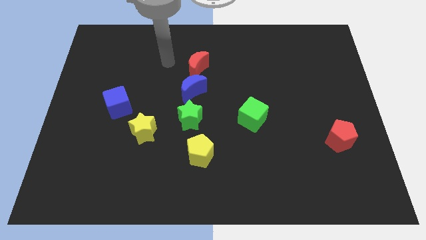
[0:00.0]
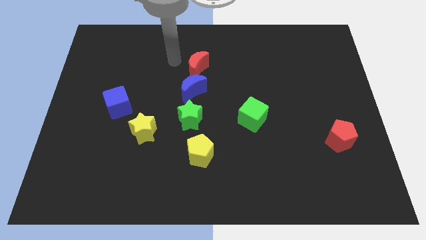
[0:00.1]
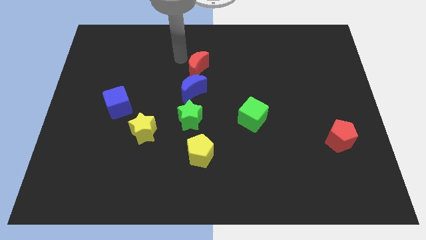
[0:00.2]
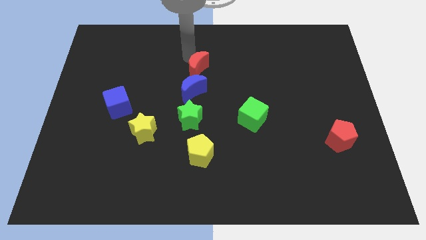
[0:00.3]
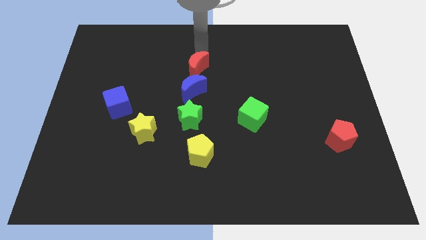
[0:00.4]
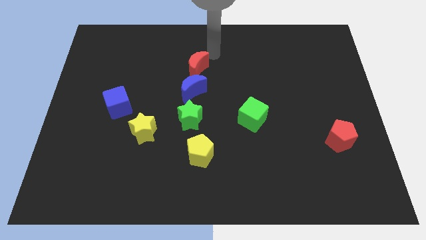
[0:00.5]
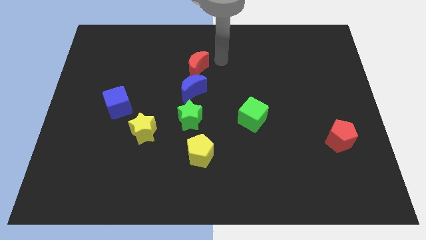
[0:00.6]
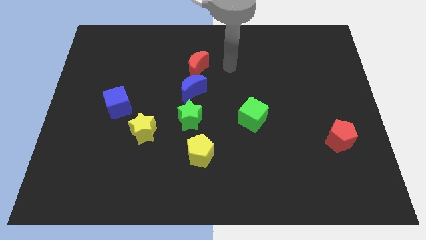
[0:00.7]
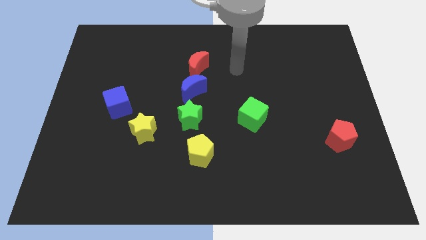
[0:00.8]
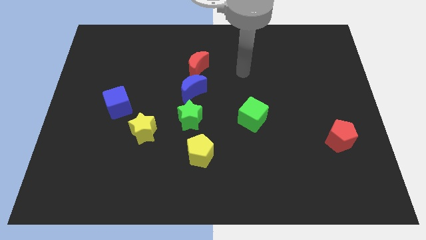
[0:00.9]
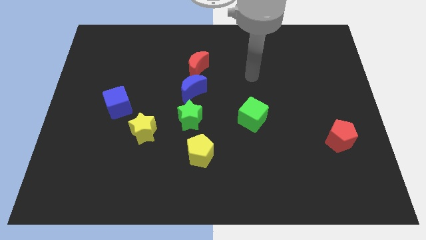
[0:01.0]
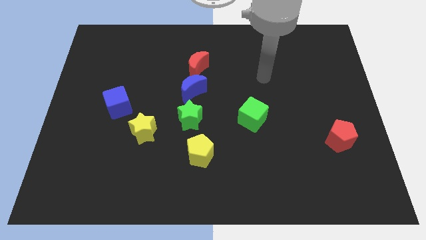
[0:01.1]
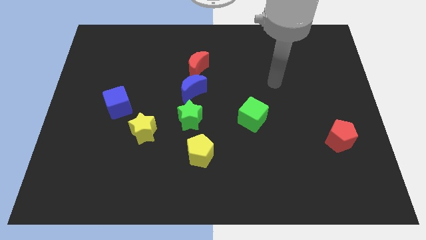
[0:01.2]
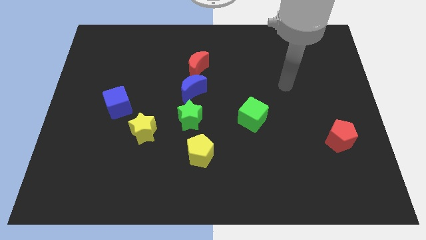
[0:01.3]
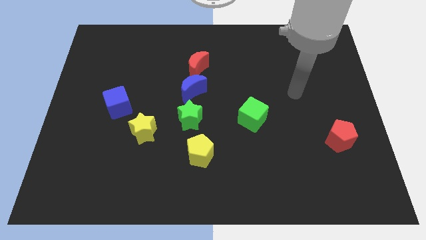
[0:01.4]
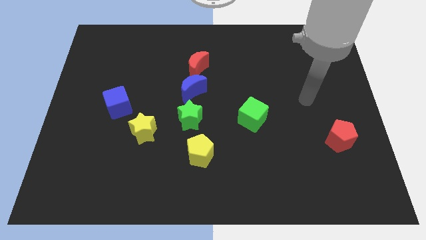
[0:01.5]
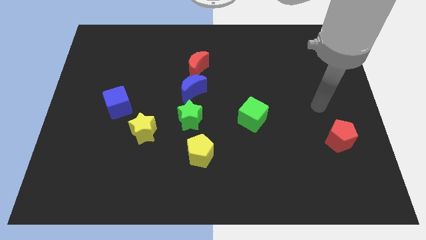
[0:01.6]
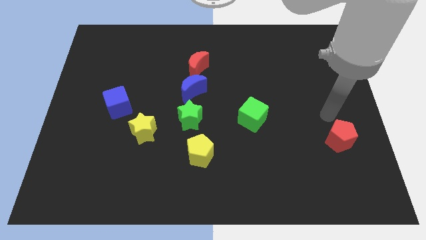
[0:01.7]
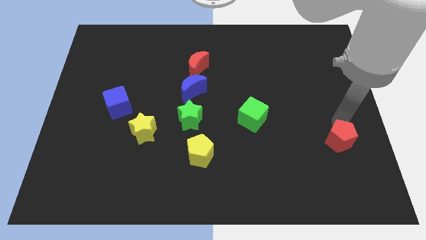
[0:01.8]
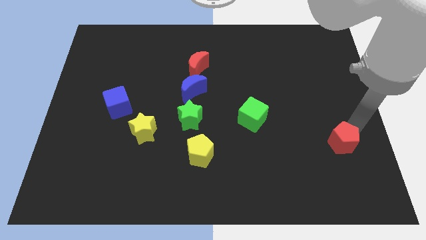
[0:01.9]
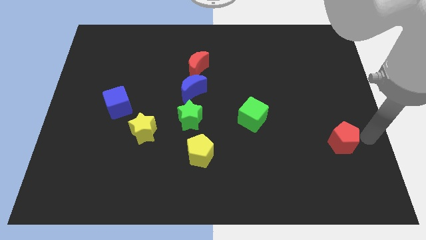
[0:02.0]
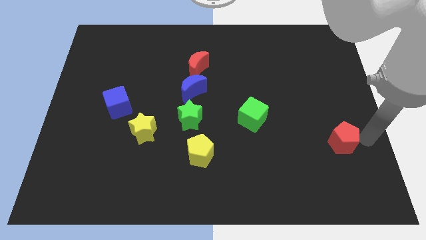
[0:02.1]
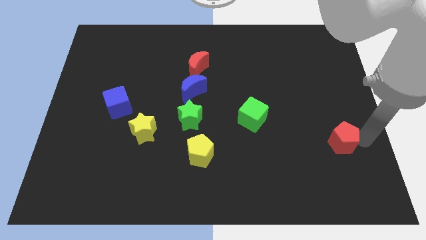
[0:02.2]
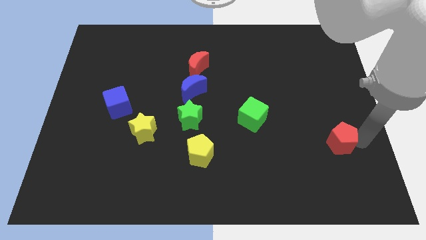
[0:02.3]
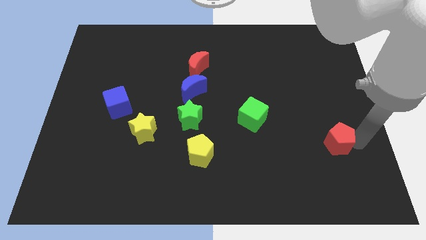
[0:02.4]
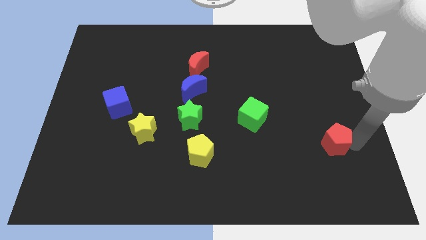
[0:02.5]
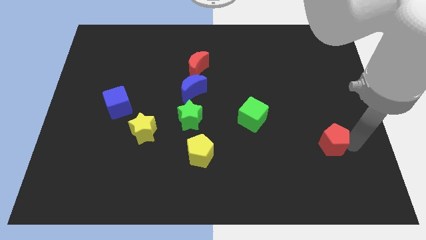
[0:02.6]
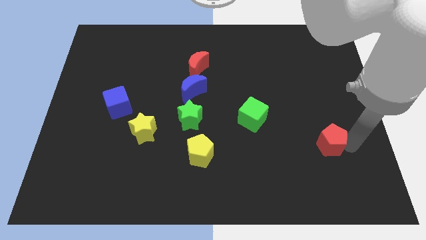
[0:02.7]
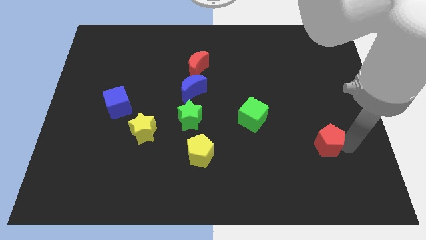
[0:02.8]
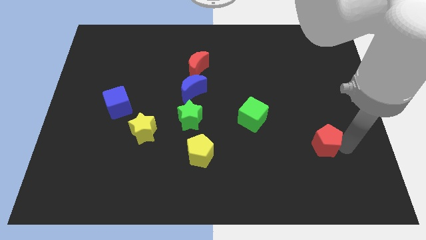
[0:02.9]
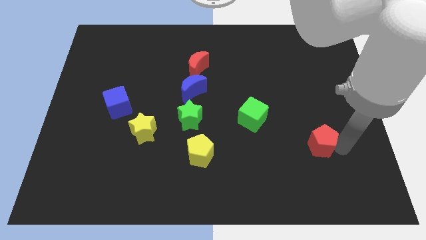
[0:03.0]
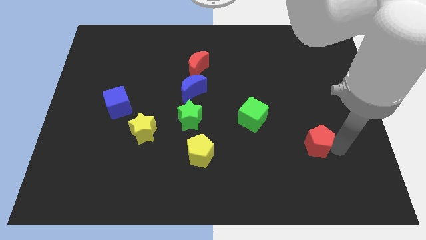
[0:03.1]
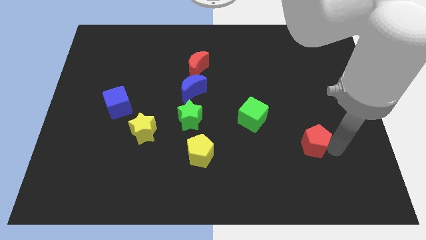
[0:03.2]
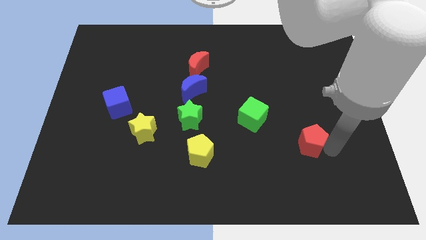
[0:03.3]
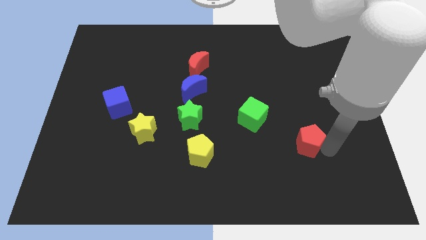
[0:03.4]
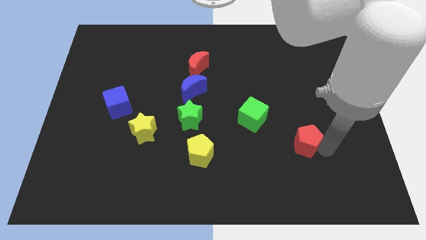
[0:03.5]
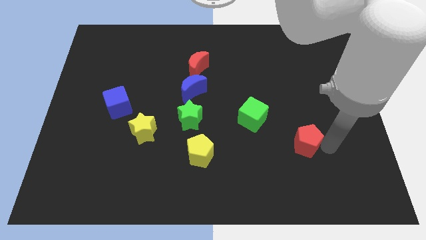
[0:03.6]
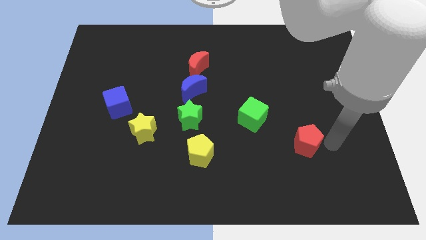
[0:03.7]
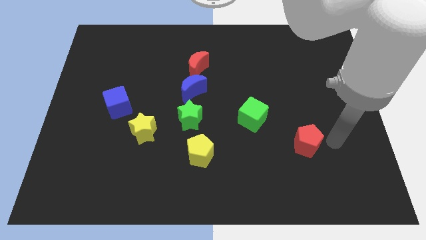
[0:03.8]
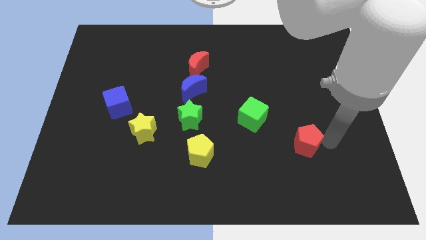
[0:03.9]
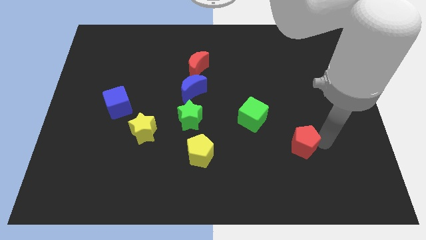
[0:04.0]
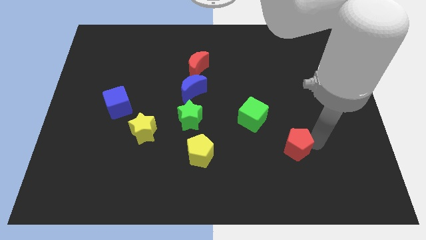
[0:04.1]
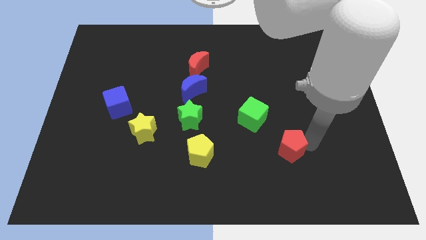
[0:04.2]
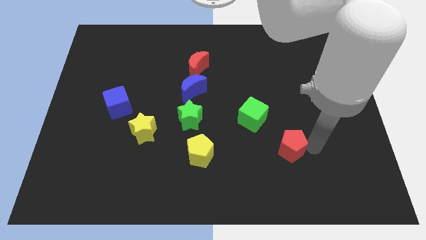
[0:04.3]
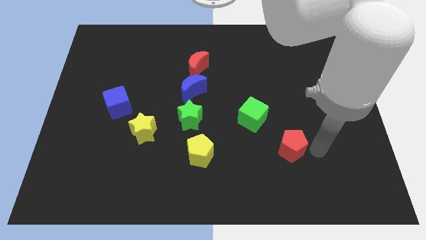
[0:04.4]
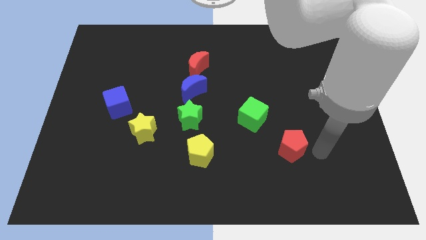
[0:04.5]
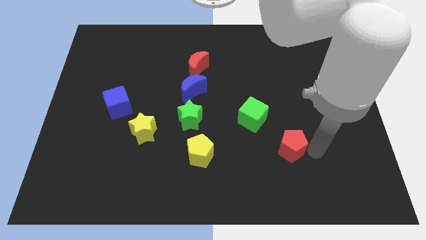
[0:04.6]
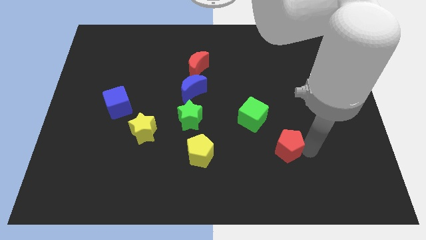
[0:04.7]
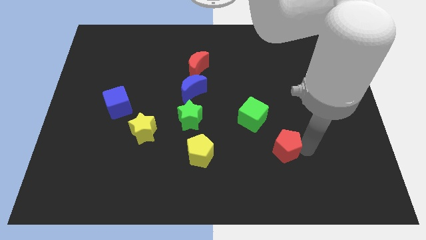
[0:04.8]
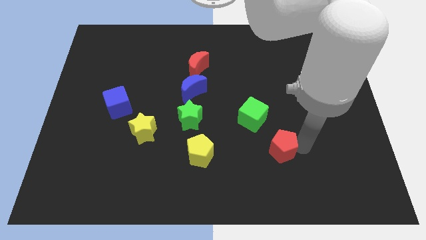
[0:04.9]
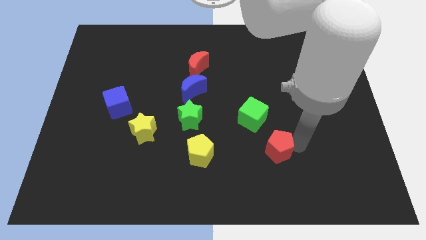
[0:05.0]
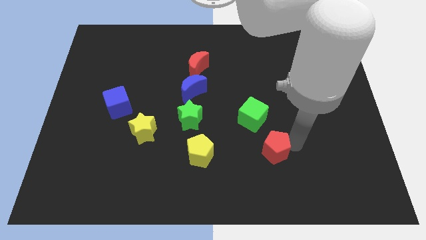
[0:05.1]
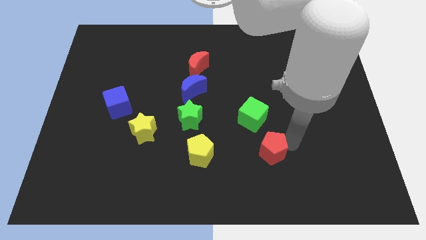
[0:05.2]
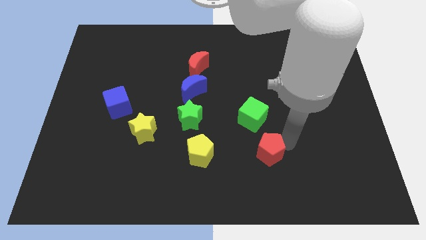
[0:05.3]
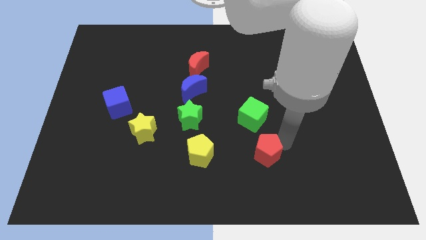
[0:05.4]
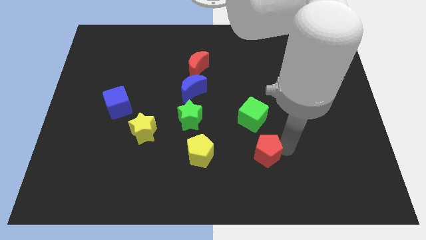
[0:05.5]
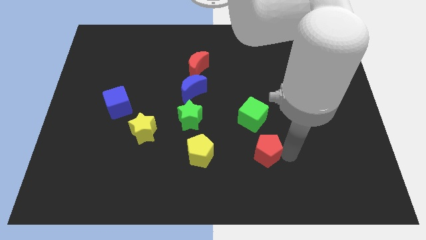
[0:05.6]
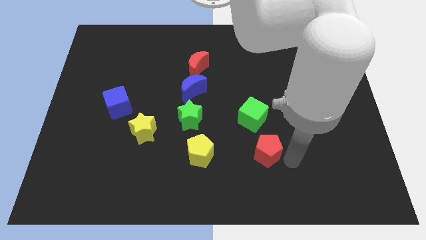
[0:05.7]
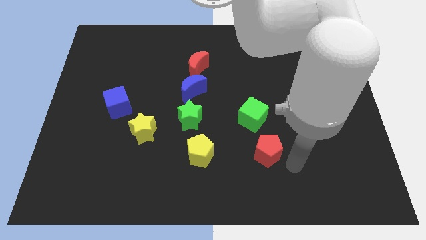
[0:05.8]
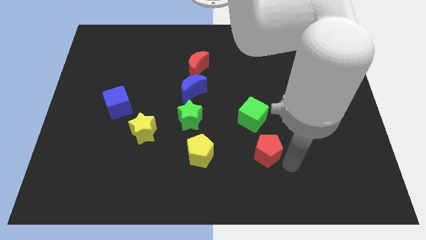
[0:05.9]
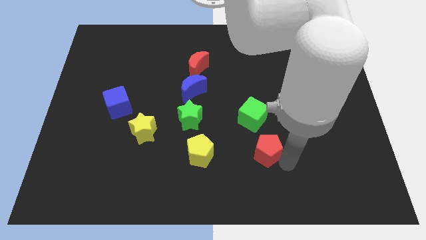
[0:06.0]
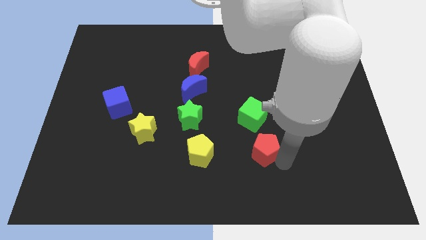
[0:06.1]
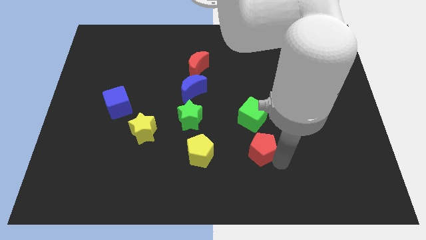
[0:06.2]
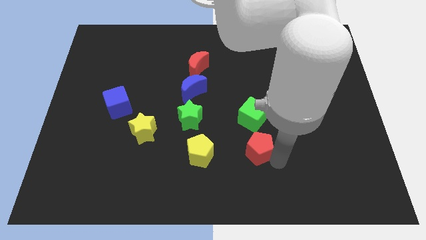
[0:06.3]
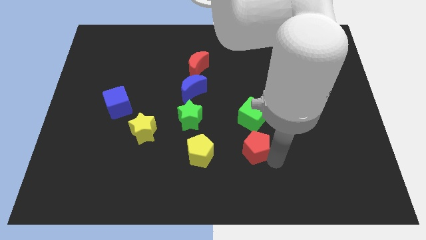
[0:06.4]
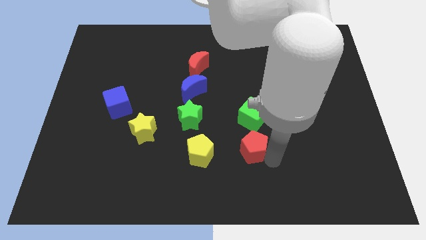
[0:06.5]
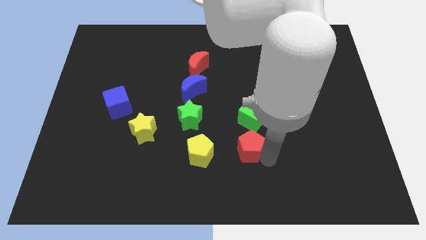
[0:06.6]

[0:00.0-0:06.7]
slide the red pentagon to the left

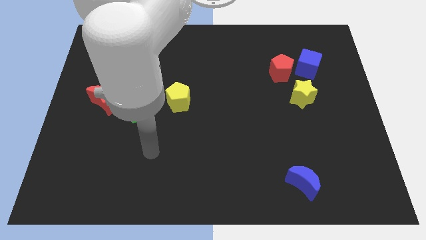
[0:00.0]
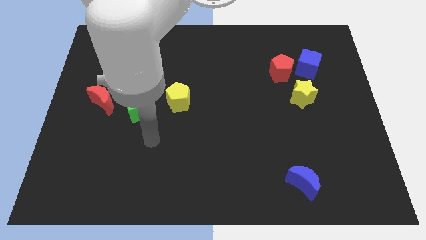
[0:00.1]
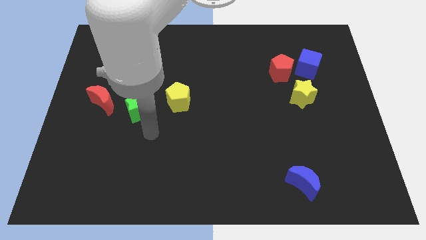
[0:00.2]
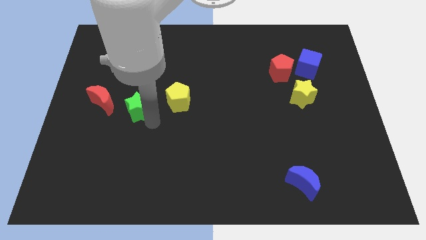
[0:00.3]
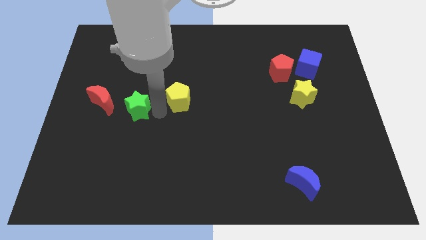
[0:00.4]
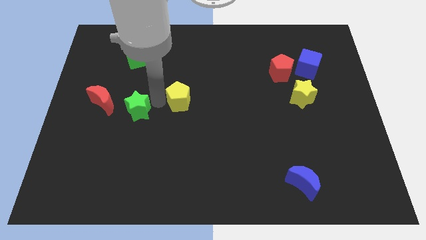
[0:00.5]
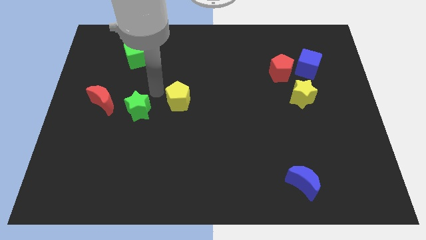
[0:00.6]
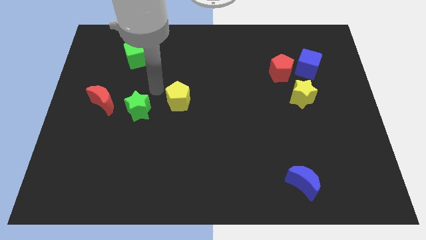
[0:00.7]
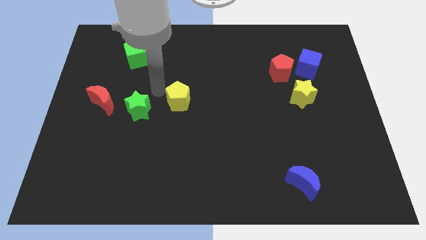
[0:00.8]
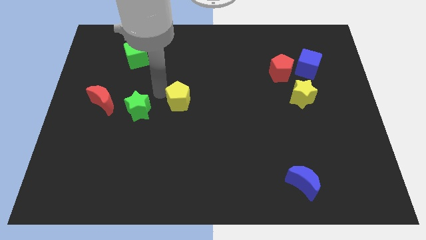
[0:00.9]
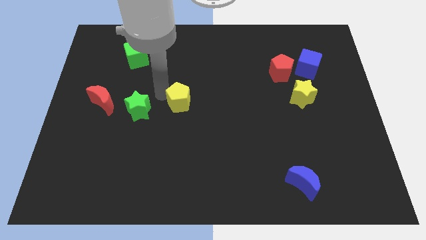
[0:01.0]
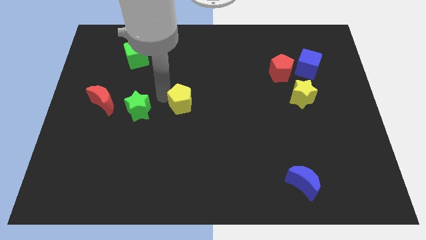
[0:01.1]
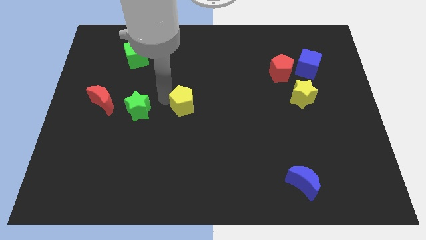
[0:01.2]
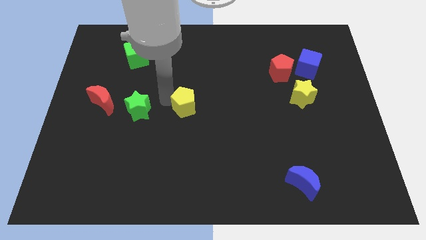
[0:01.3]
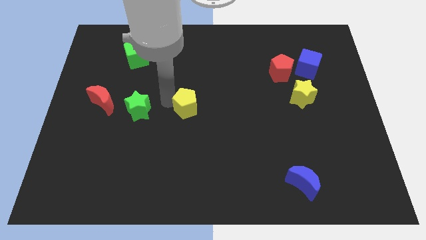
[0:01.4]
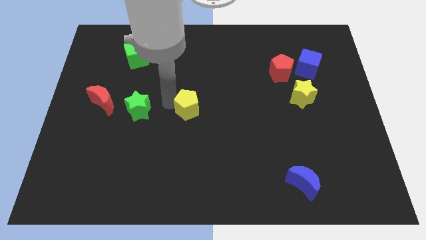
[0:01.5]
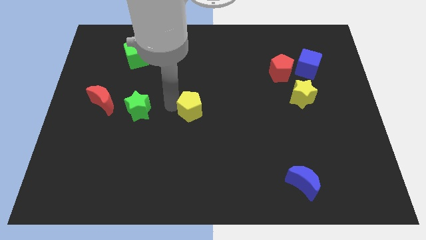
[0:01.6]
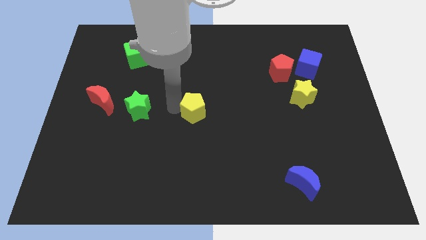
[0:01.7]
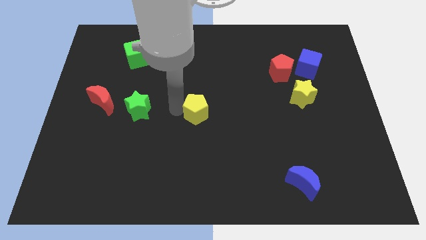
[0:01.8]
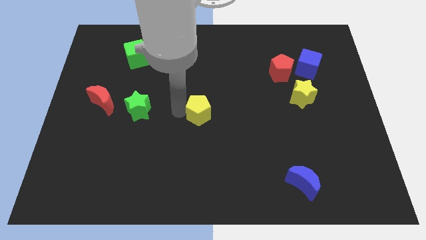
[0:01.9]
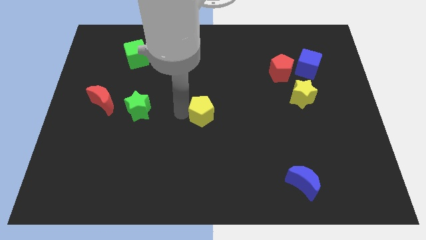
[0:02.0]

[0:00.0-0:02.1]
slightly move the yellow pentagon downwards and then to the right
